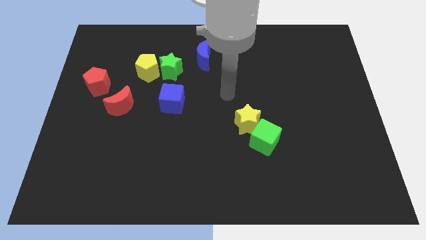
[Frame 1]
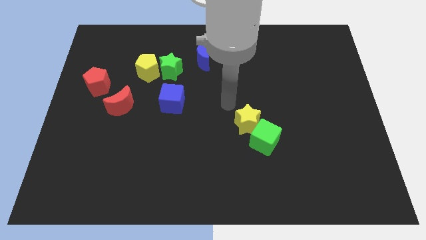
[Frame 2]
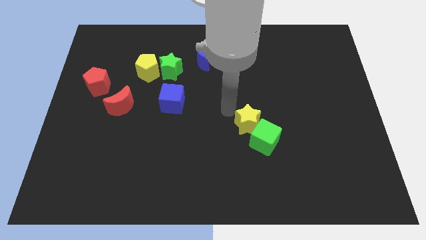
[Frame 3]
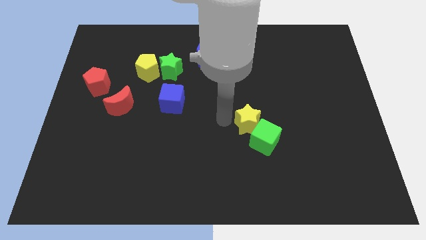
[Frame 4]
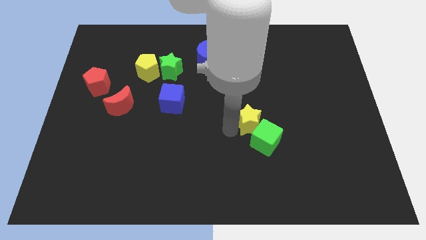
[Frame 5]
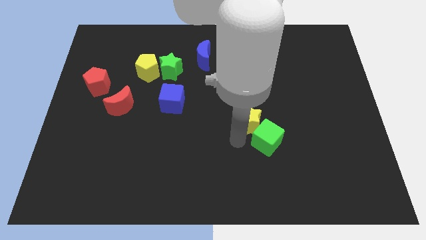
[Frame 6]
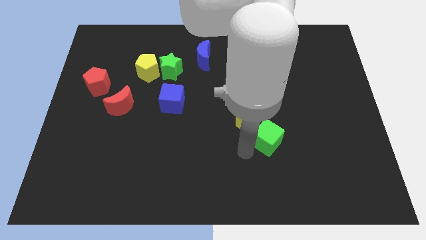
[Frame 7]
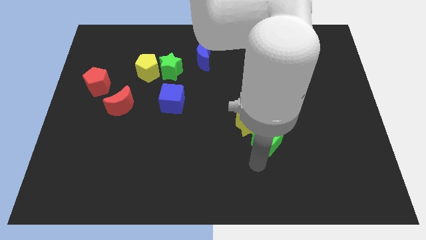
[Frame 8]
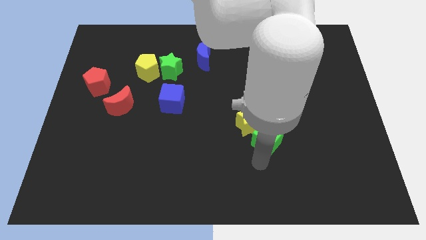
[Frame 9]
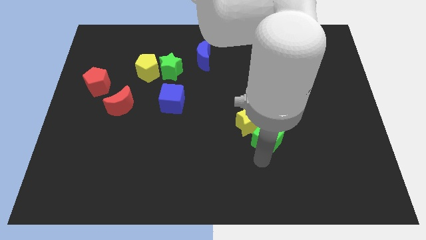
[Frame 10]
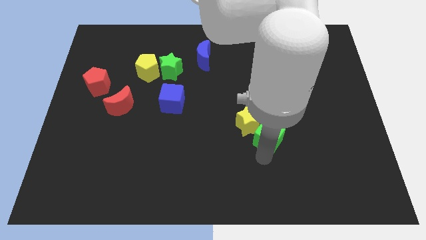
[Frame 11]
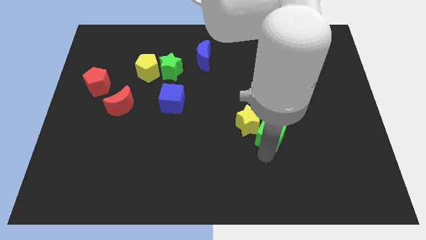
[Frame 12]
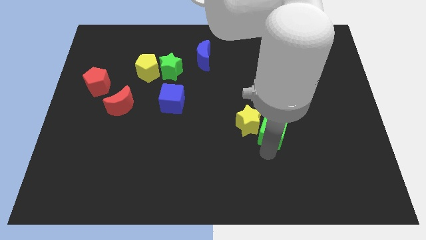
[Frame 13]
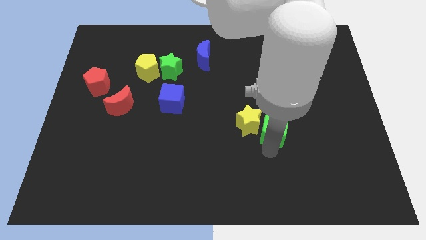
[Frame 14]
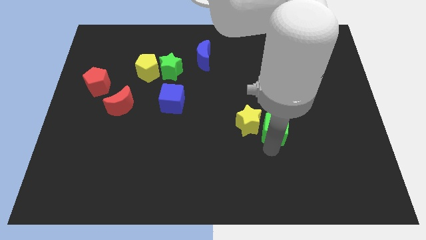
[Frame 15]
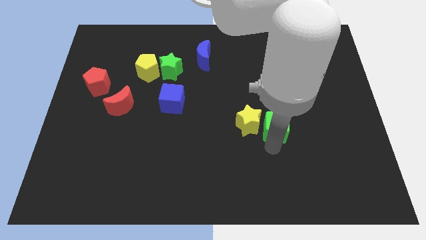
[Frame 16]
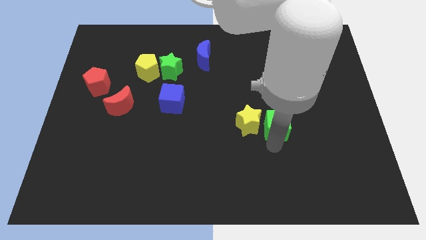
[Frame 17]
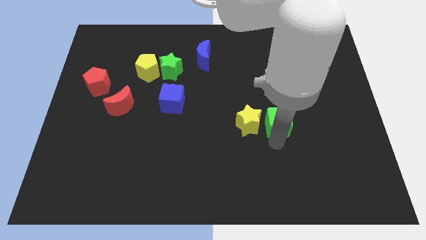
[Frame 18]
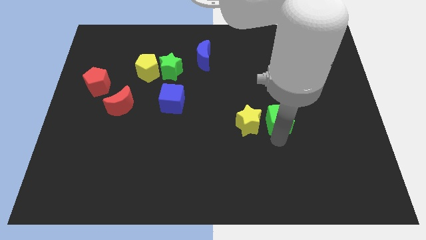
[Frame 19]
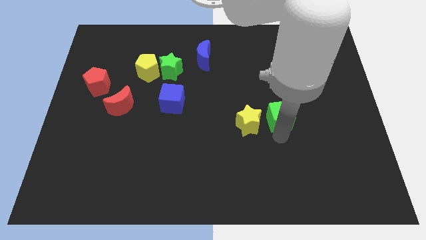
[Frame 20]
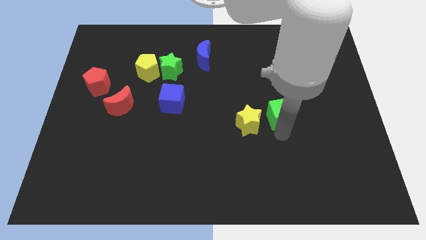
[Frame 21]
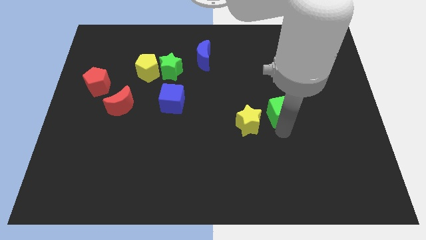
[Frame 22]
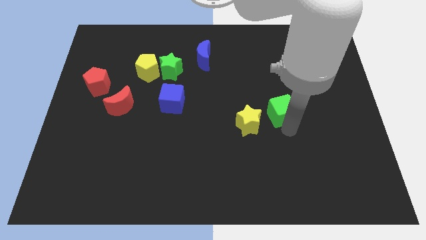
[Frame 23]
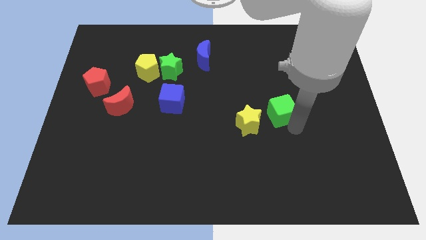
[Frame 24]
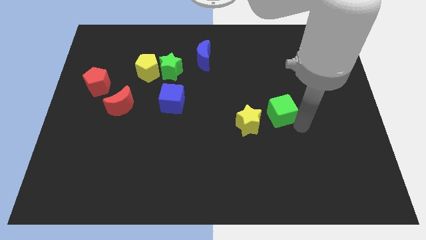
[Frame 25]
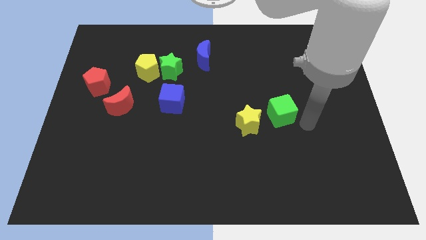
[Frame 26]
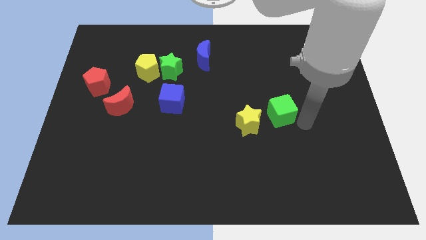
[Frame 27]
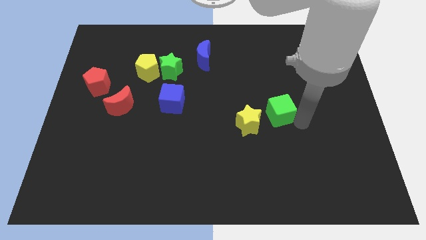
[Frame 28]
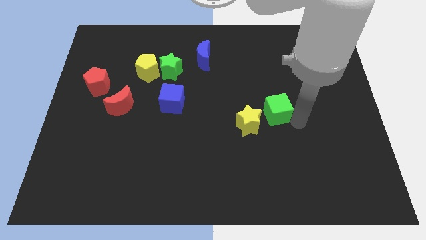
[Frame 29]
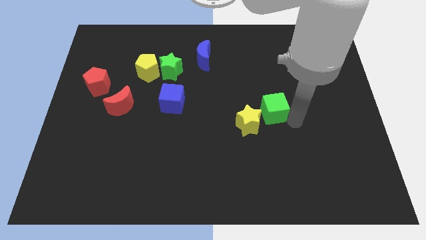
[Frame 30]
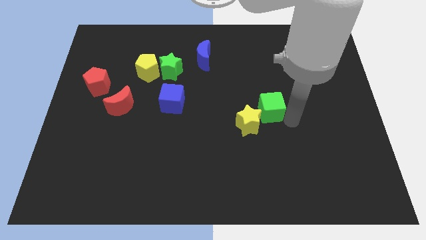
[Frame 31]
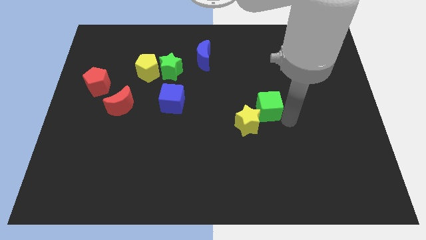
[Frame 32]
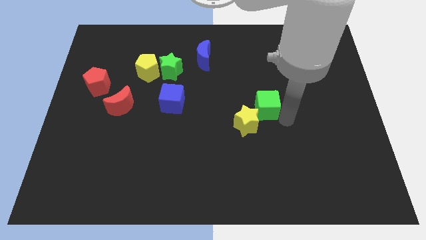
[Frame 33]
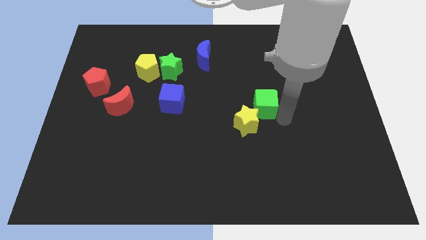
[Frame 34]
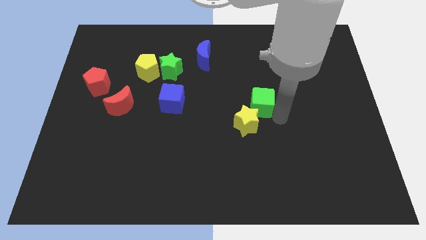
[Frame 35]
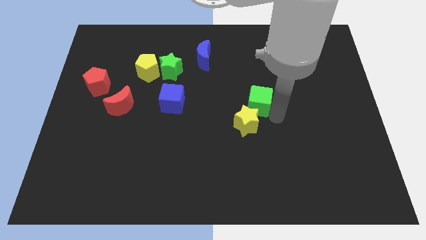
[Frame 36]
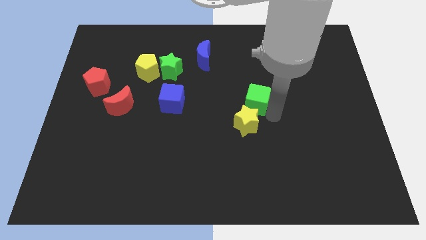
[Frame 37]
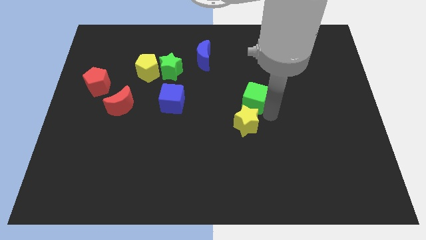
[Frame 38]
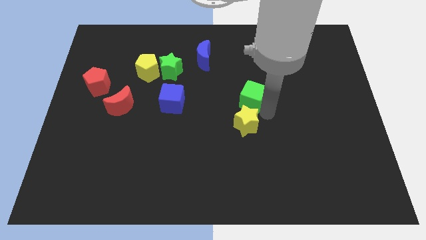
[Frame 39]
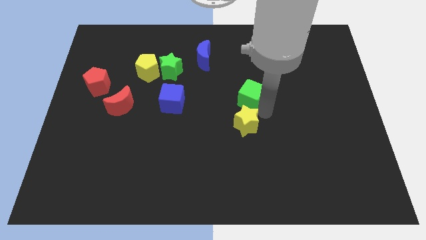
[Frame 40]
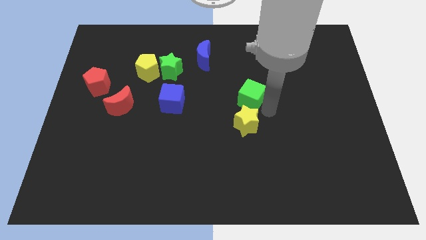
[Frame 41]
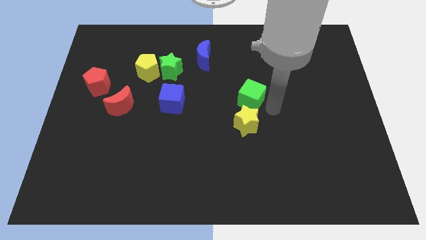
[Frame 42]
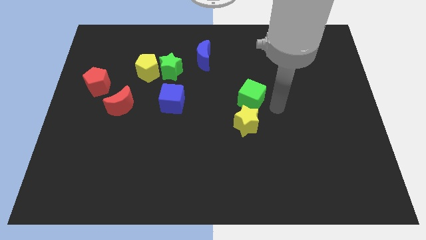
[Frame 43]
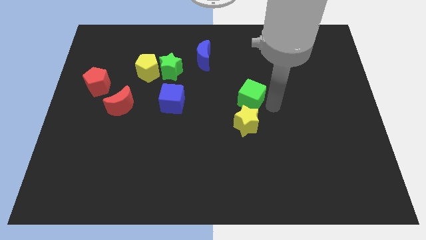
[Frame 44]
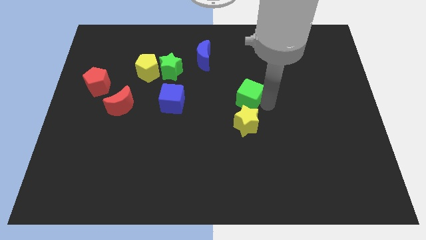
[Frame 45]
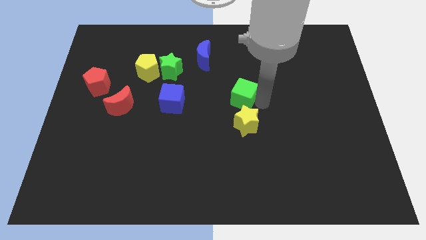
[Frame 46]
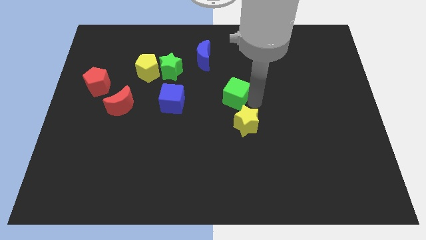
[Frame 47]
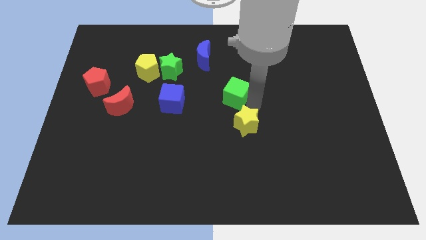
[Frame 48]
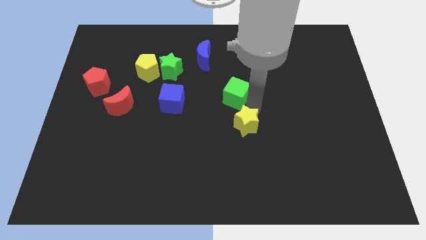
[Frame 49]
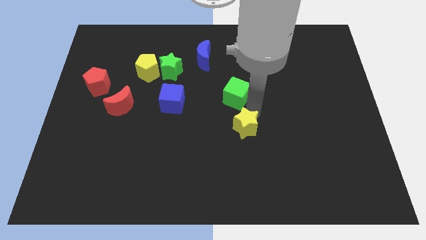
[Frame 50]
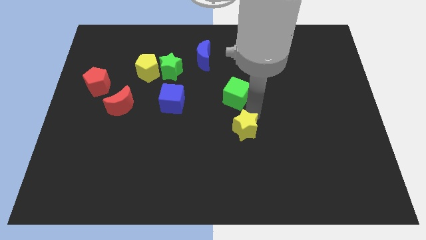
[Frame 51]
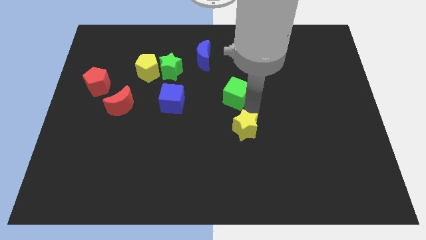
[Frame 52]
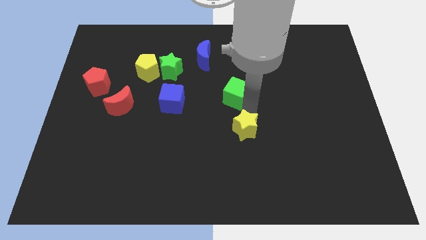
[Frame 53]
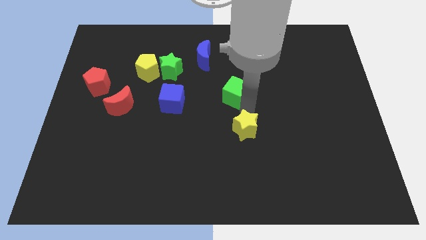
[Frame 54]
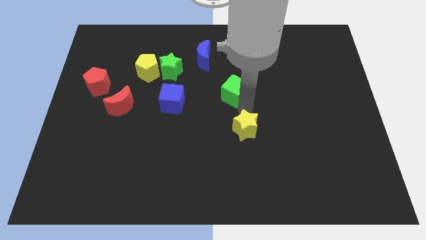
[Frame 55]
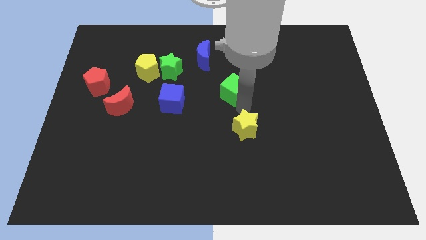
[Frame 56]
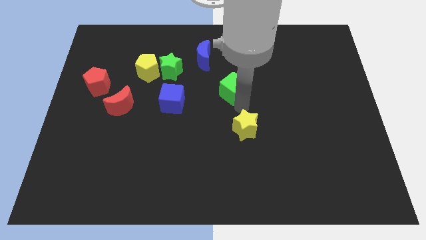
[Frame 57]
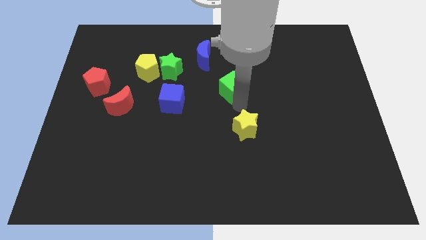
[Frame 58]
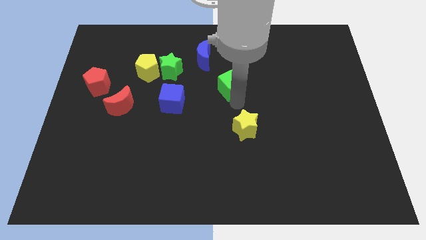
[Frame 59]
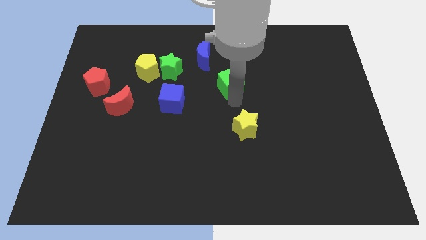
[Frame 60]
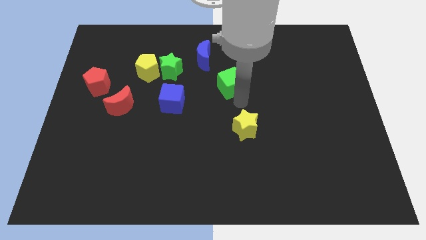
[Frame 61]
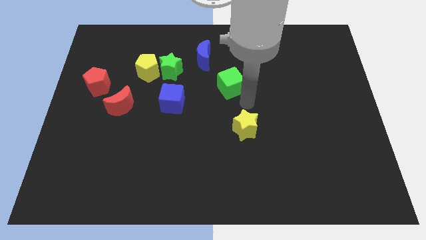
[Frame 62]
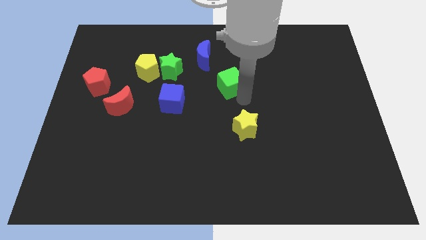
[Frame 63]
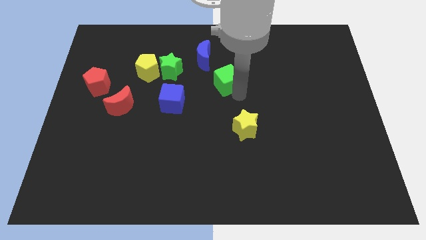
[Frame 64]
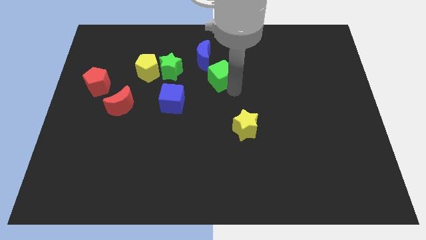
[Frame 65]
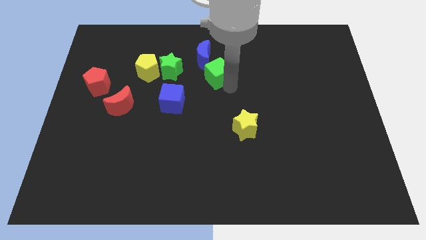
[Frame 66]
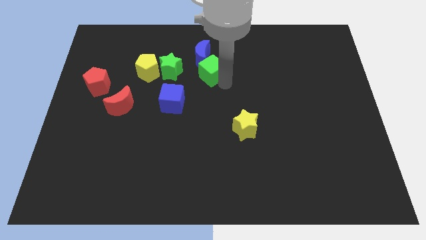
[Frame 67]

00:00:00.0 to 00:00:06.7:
move the green cube to the blue moon

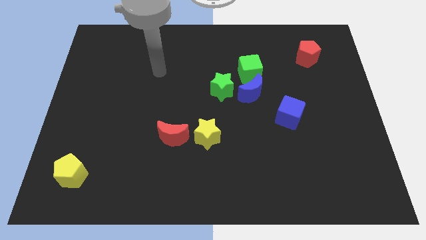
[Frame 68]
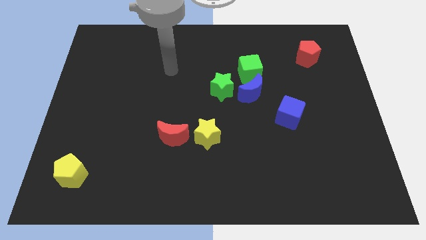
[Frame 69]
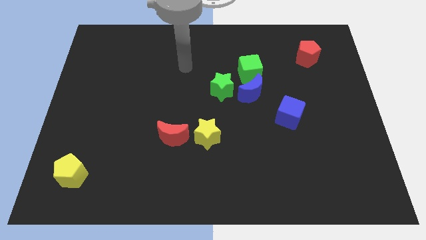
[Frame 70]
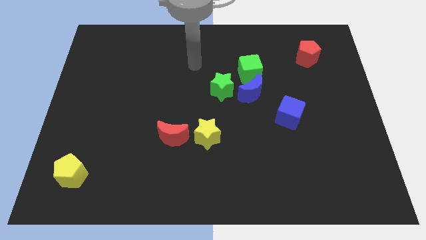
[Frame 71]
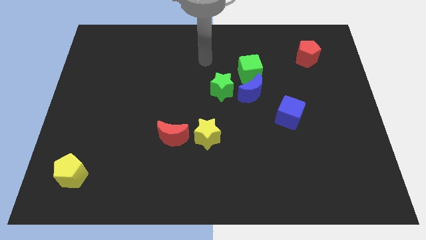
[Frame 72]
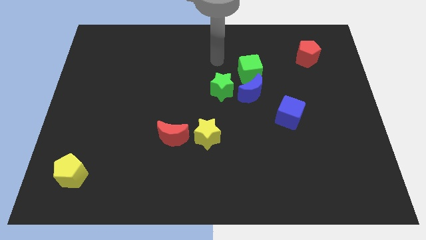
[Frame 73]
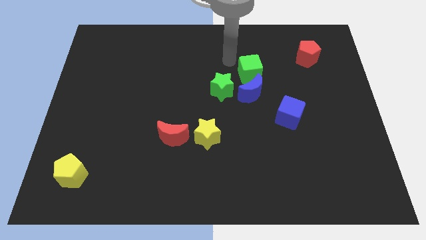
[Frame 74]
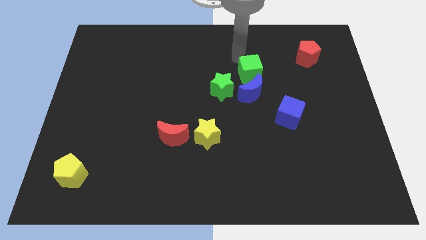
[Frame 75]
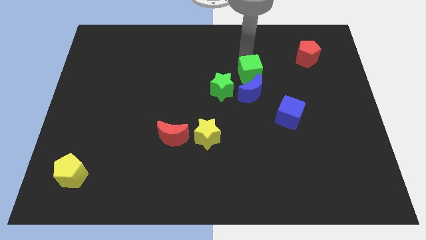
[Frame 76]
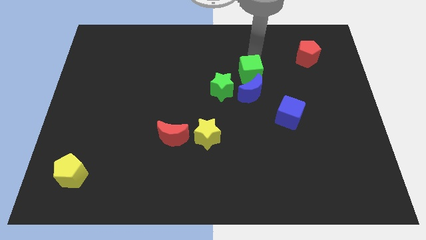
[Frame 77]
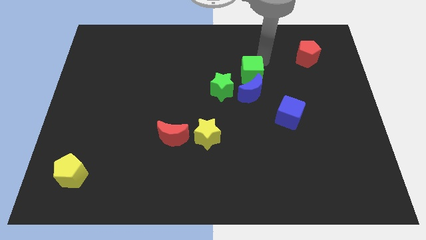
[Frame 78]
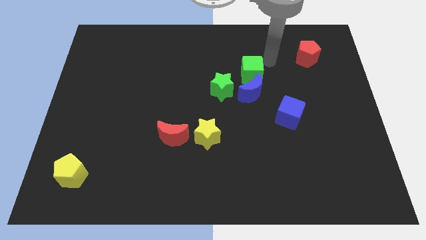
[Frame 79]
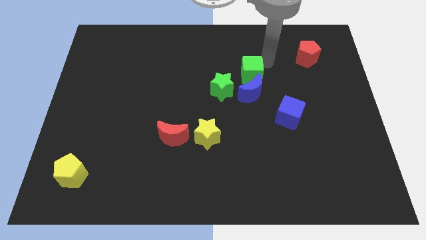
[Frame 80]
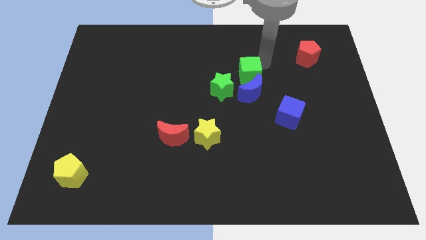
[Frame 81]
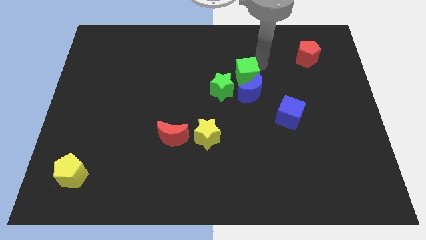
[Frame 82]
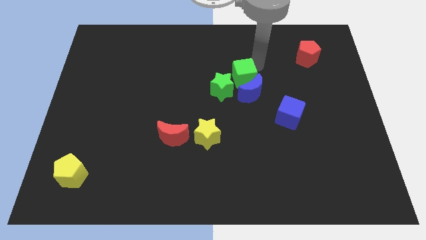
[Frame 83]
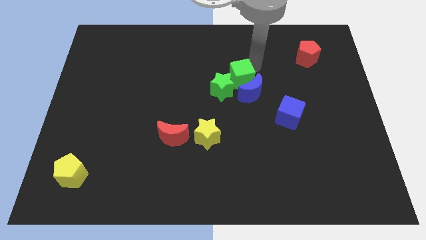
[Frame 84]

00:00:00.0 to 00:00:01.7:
put the green cube next to the green star
